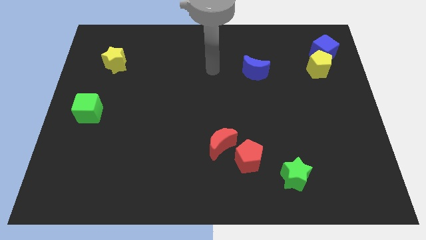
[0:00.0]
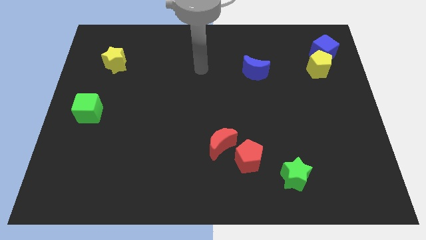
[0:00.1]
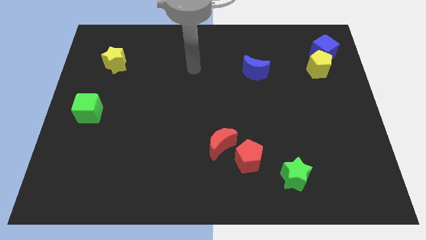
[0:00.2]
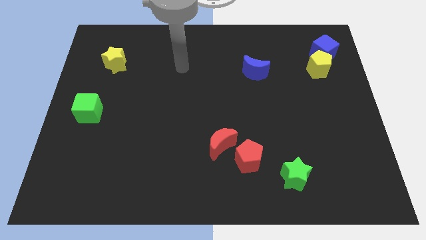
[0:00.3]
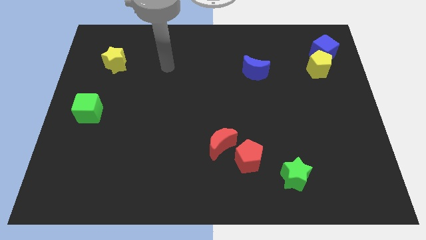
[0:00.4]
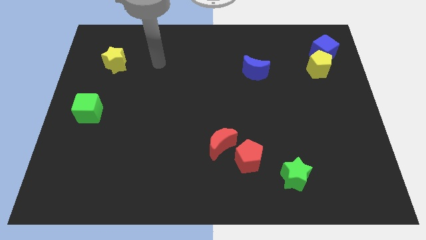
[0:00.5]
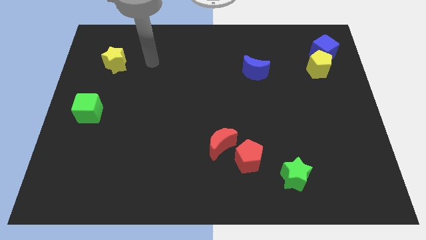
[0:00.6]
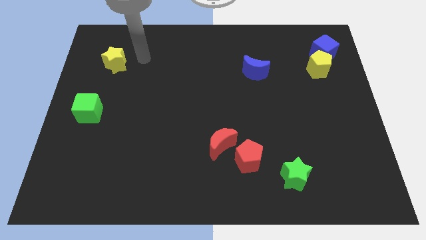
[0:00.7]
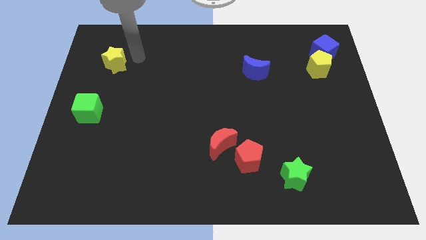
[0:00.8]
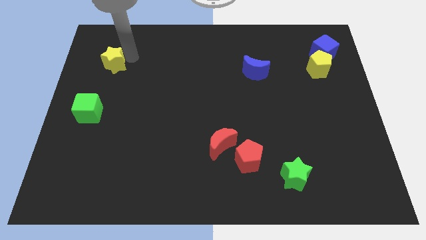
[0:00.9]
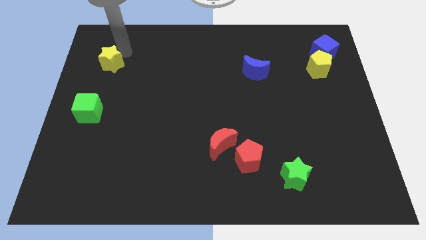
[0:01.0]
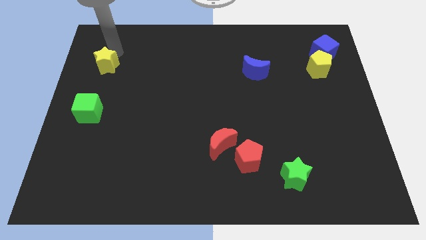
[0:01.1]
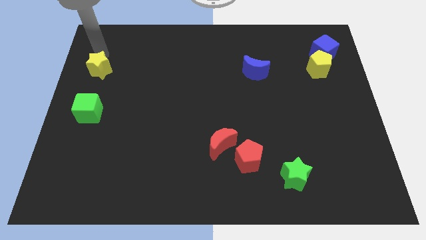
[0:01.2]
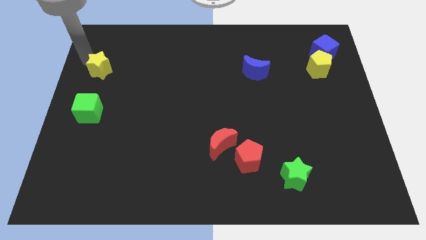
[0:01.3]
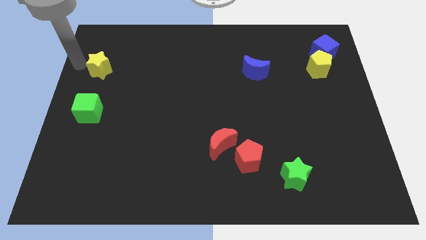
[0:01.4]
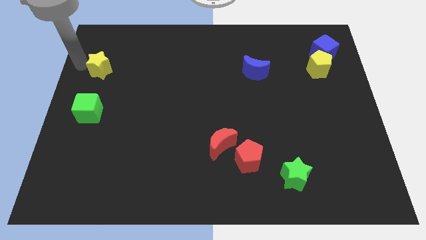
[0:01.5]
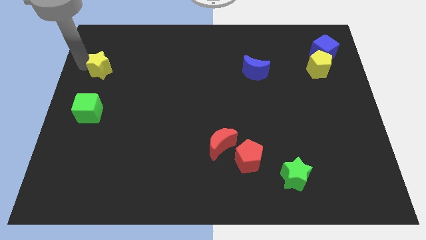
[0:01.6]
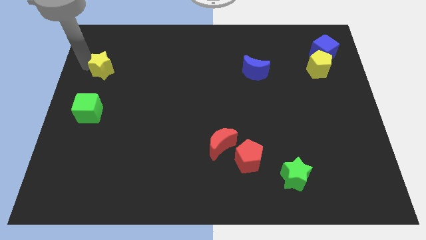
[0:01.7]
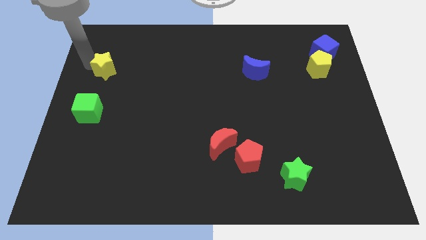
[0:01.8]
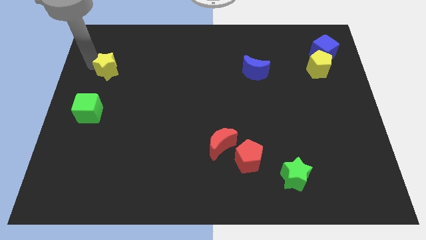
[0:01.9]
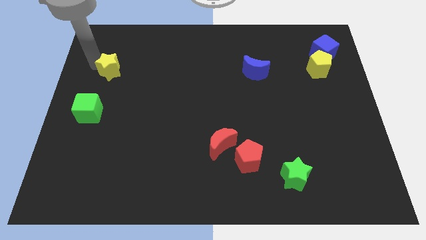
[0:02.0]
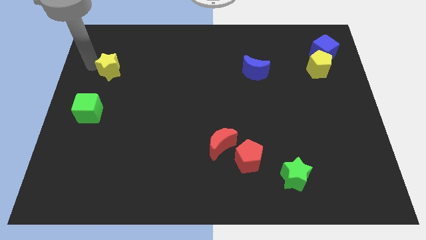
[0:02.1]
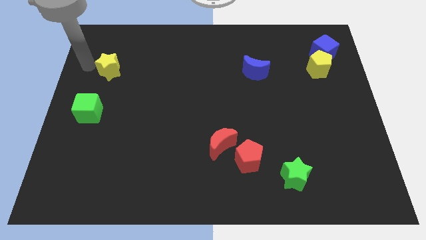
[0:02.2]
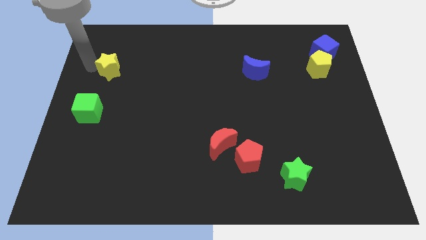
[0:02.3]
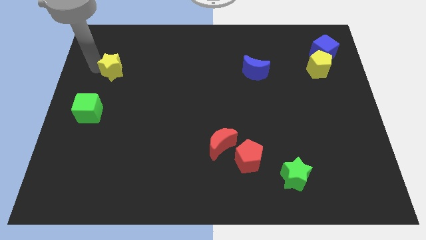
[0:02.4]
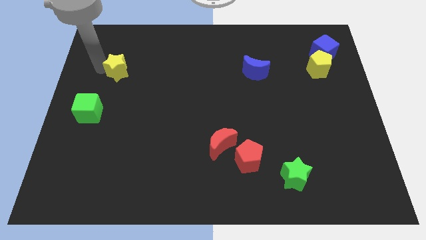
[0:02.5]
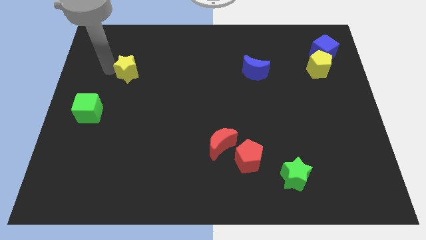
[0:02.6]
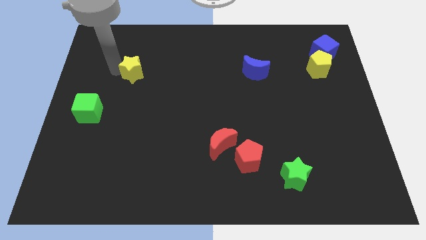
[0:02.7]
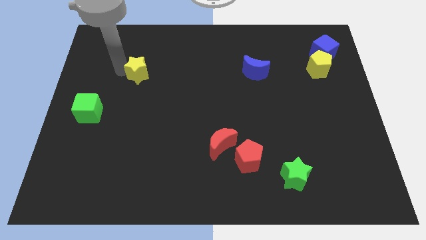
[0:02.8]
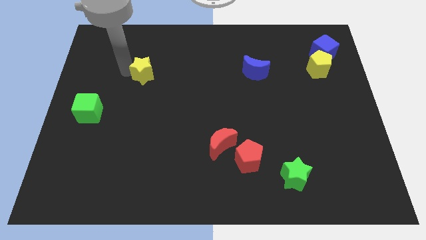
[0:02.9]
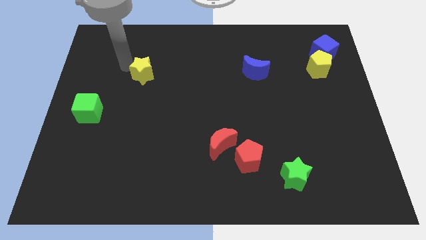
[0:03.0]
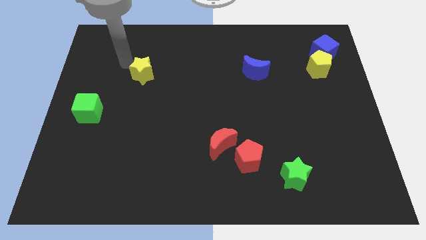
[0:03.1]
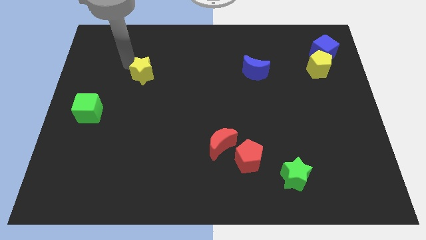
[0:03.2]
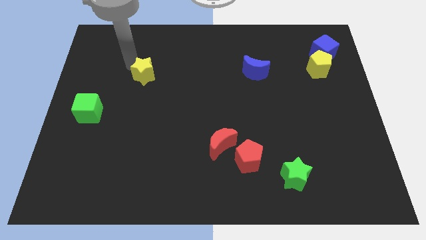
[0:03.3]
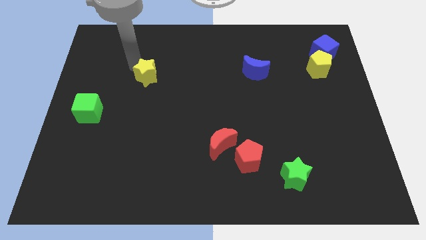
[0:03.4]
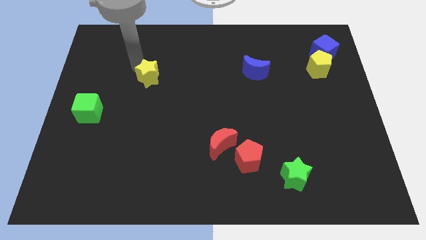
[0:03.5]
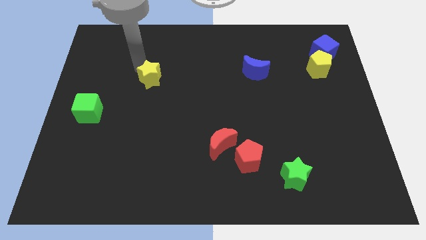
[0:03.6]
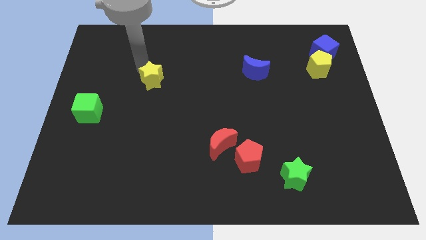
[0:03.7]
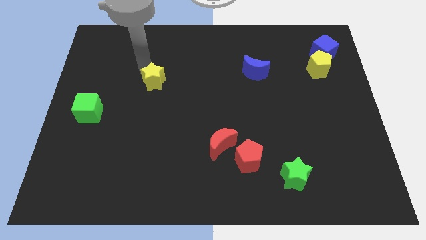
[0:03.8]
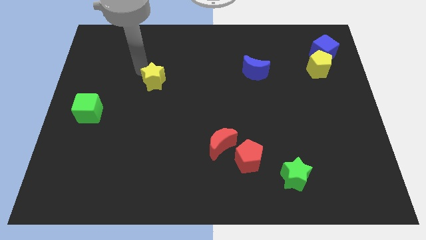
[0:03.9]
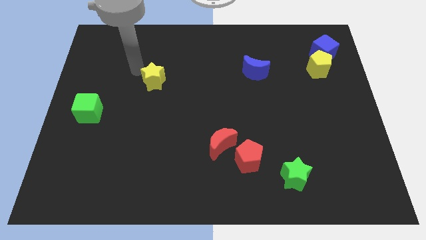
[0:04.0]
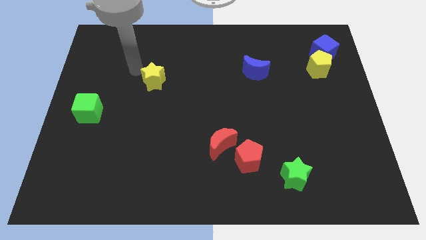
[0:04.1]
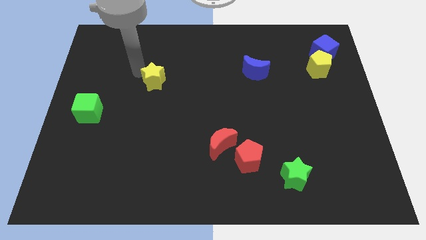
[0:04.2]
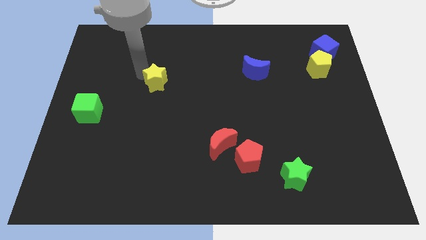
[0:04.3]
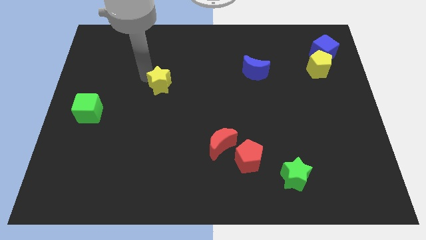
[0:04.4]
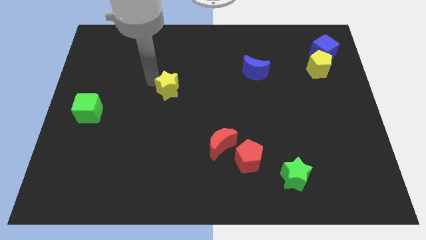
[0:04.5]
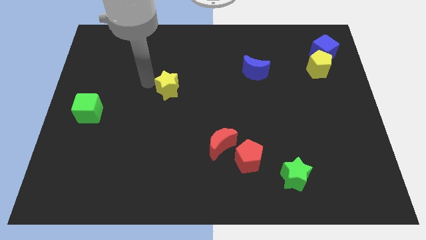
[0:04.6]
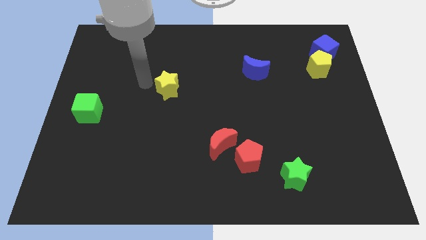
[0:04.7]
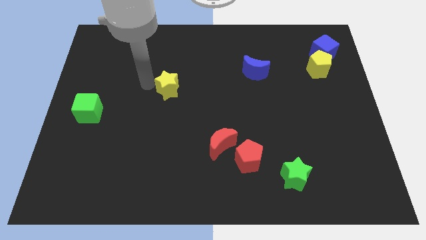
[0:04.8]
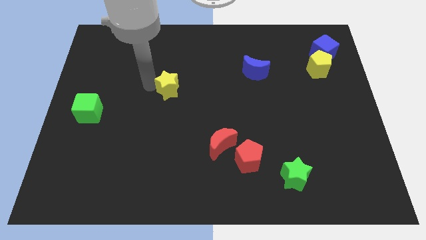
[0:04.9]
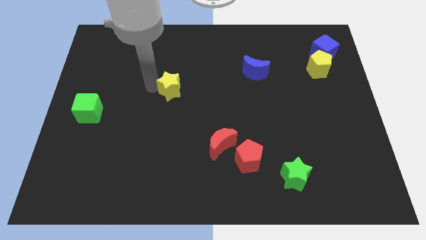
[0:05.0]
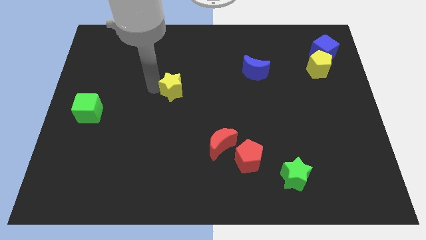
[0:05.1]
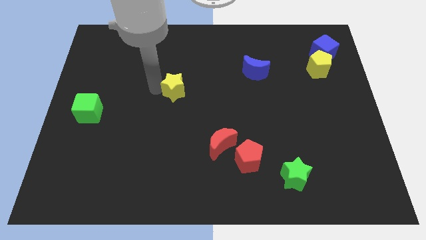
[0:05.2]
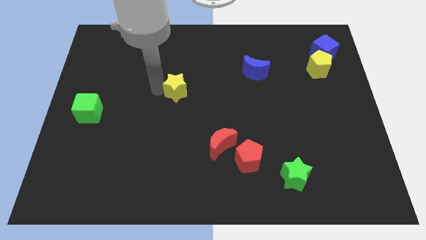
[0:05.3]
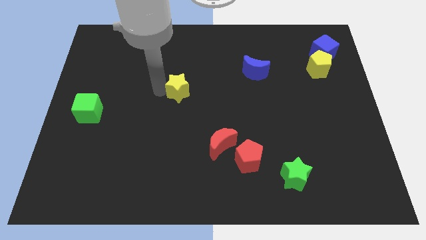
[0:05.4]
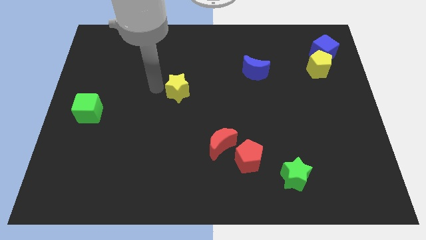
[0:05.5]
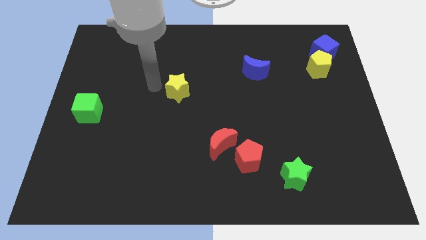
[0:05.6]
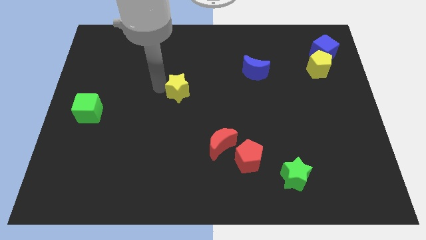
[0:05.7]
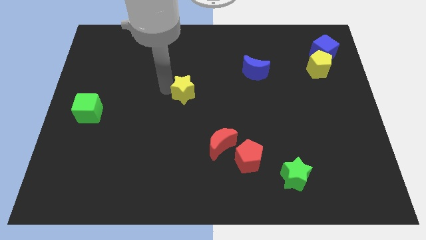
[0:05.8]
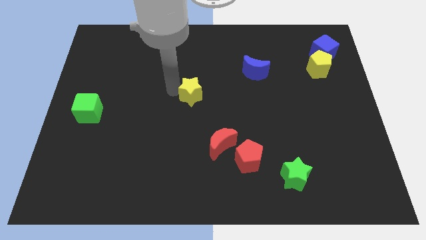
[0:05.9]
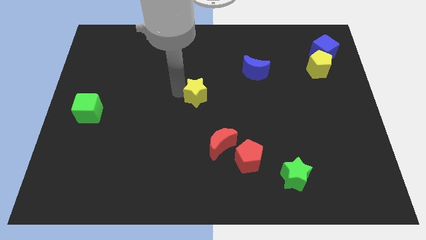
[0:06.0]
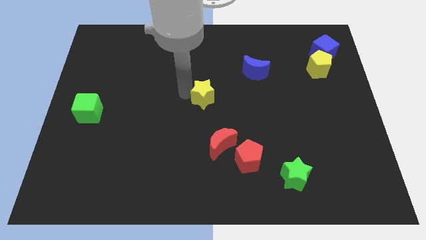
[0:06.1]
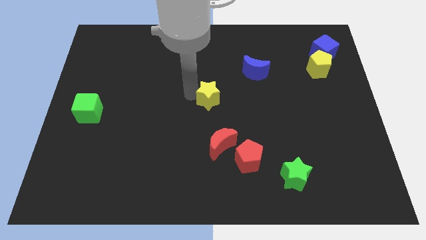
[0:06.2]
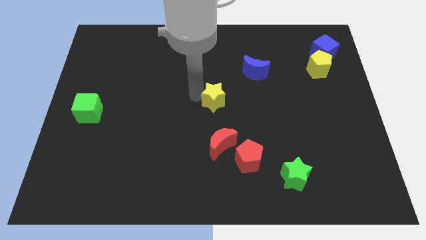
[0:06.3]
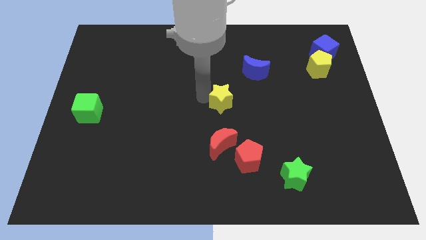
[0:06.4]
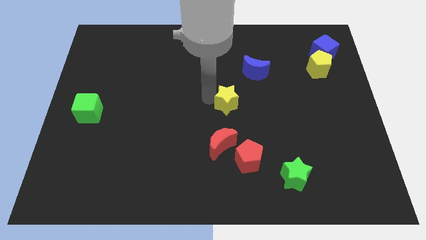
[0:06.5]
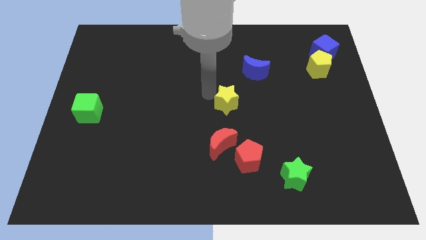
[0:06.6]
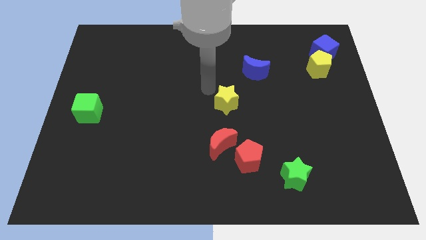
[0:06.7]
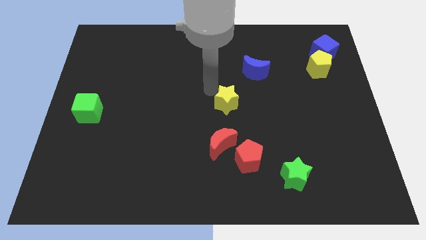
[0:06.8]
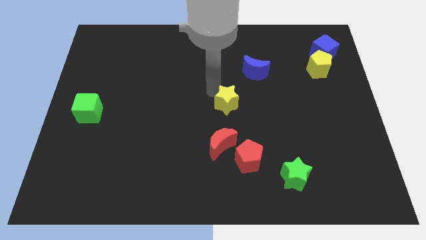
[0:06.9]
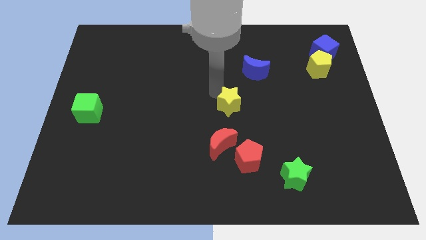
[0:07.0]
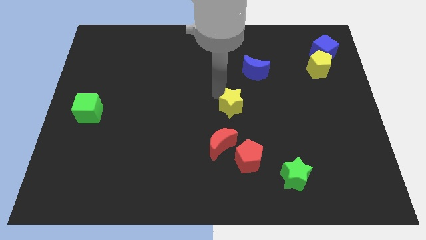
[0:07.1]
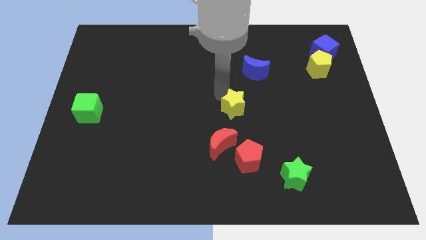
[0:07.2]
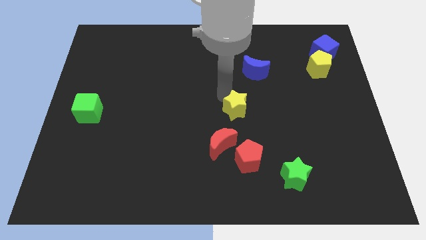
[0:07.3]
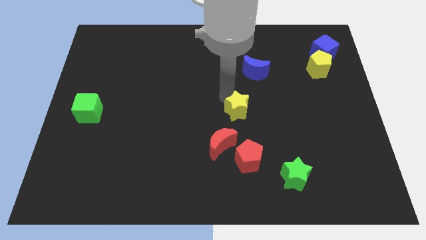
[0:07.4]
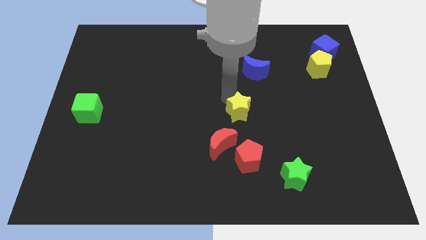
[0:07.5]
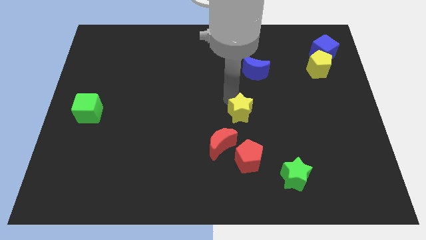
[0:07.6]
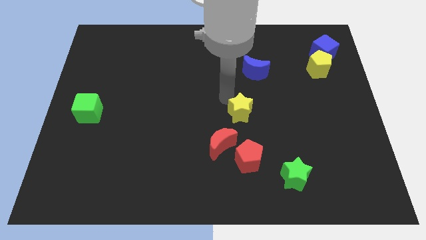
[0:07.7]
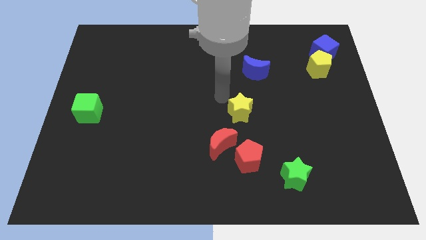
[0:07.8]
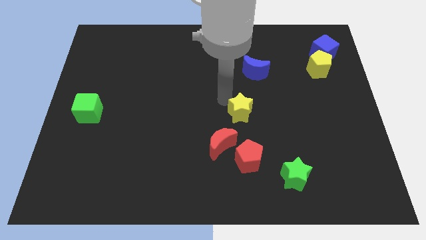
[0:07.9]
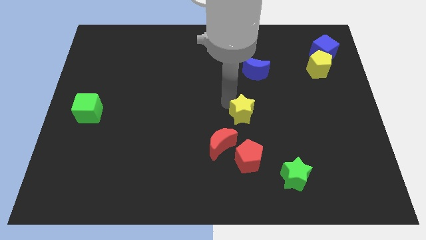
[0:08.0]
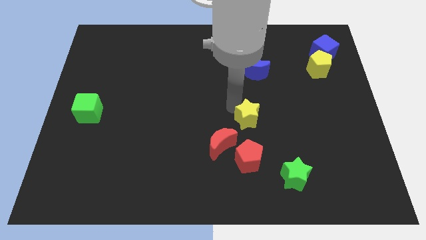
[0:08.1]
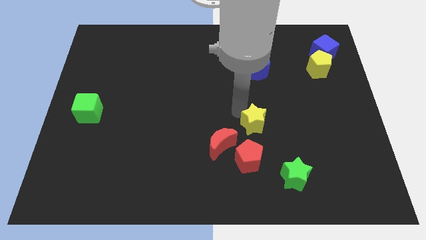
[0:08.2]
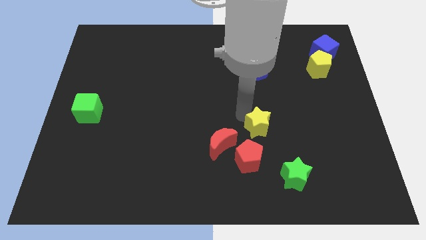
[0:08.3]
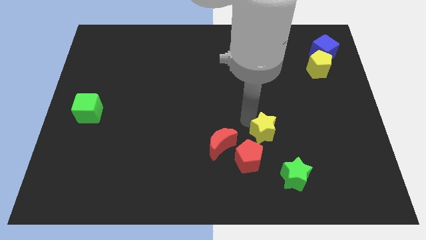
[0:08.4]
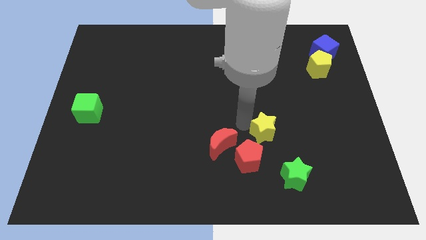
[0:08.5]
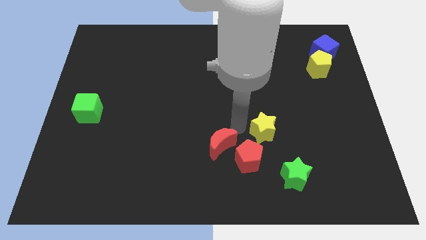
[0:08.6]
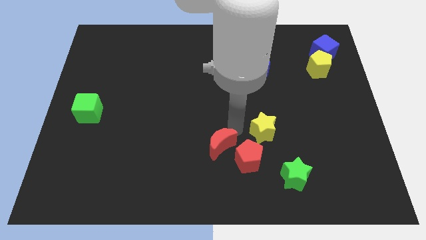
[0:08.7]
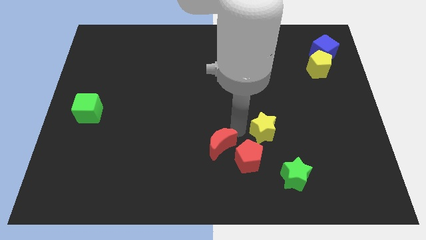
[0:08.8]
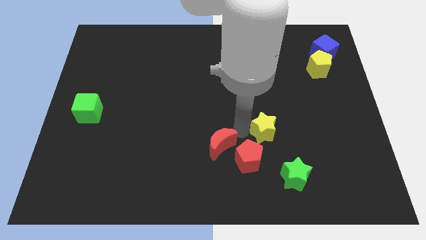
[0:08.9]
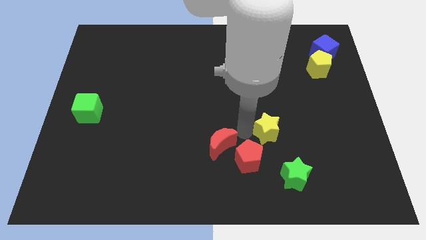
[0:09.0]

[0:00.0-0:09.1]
slide the yellow star above the green star
